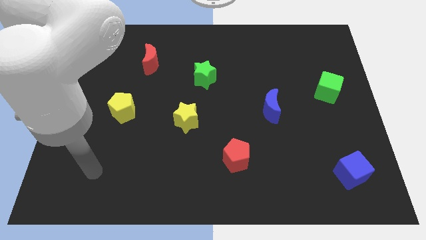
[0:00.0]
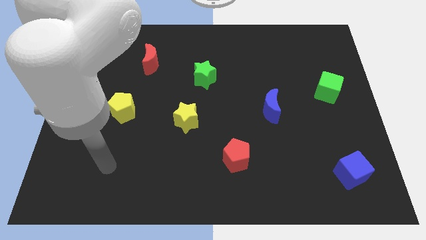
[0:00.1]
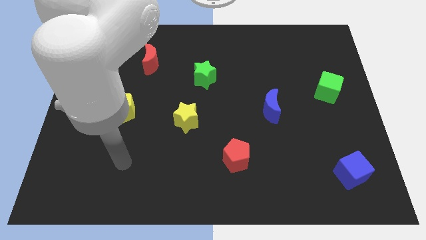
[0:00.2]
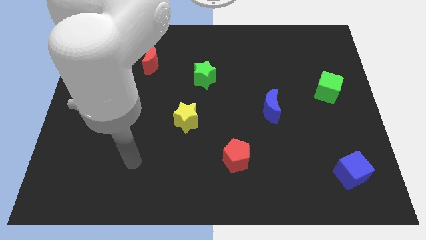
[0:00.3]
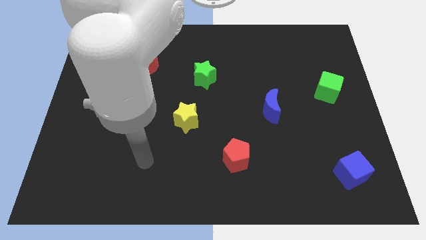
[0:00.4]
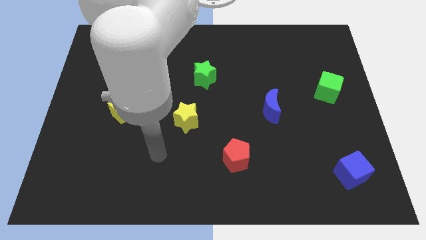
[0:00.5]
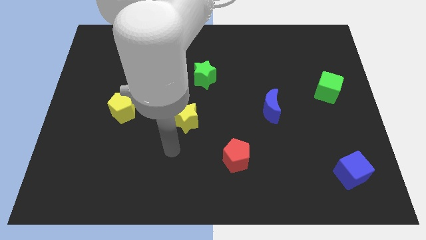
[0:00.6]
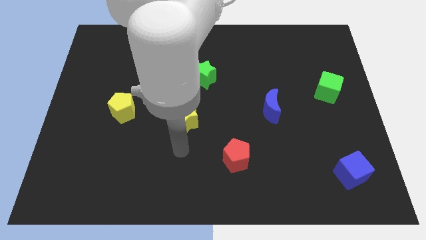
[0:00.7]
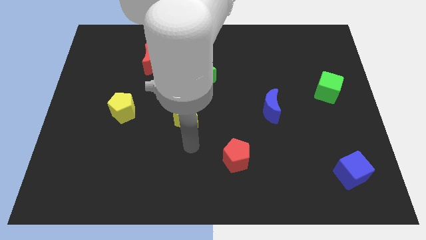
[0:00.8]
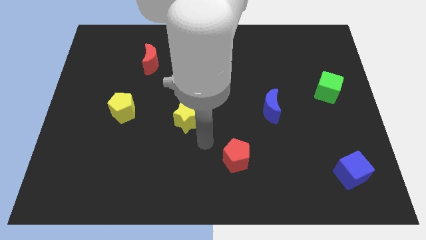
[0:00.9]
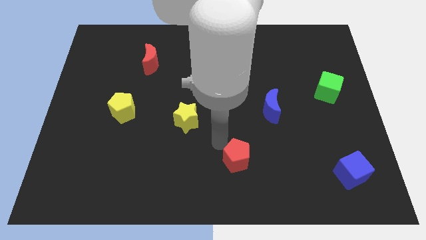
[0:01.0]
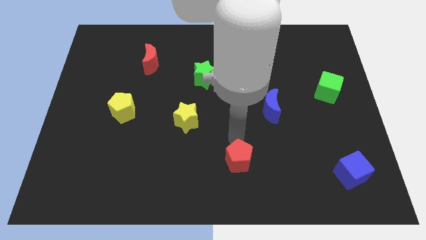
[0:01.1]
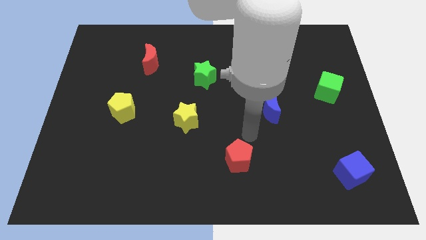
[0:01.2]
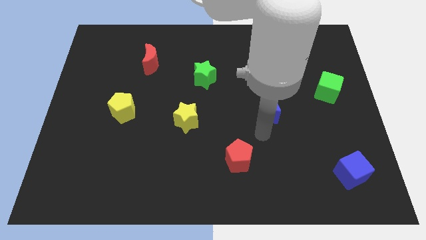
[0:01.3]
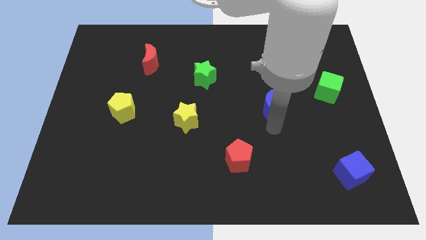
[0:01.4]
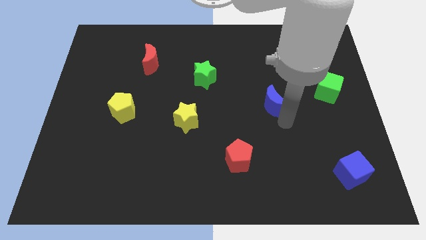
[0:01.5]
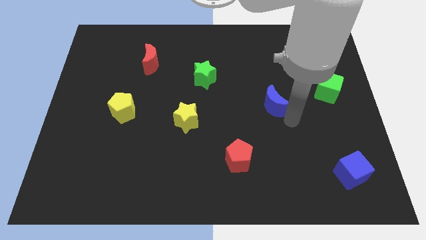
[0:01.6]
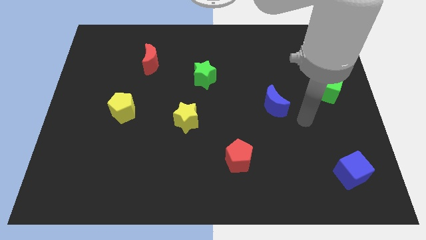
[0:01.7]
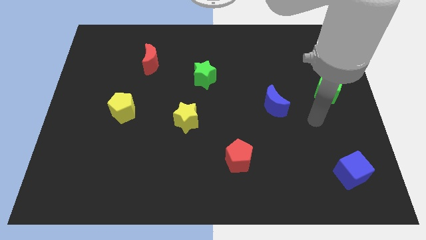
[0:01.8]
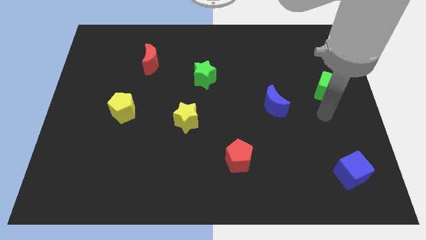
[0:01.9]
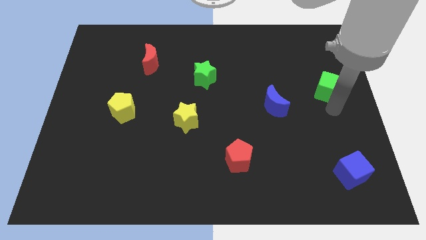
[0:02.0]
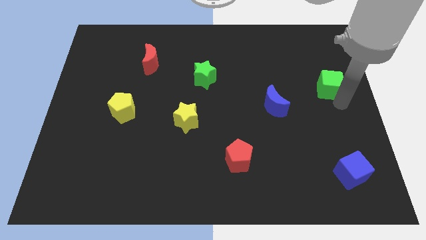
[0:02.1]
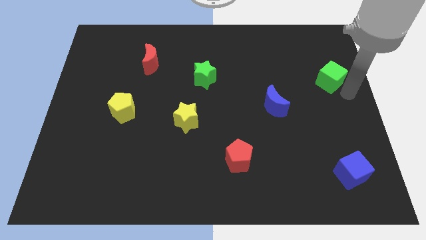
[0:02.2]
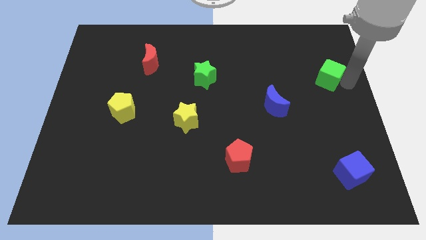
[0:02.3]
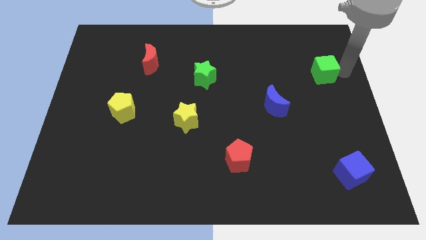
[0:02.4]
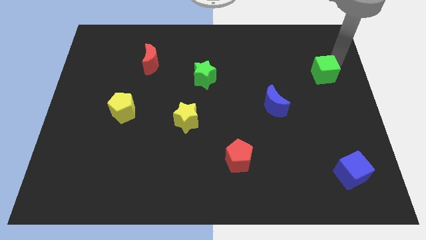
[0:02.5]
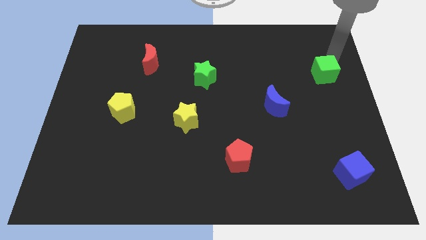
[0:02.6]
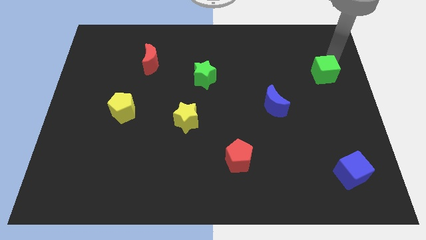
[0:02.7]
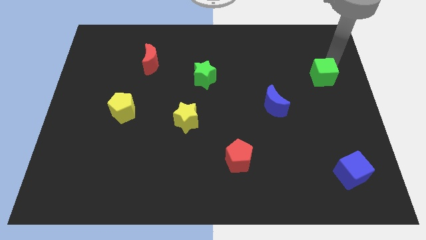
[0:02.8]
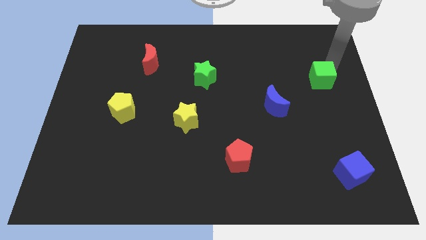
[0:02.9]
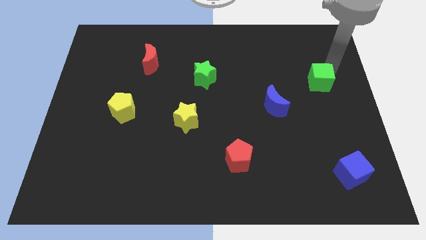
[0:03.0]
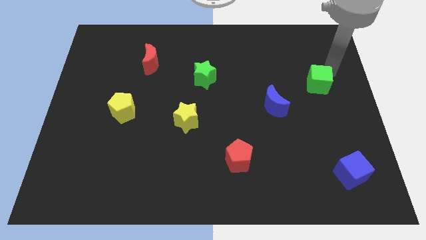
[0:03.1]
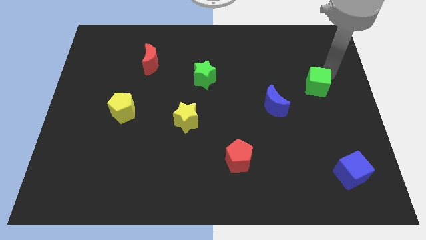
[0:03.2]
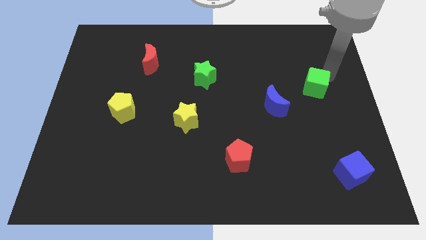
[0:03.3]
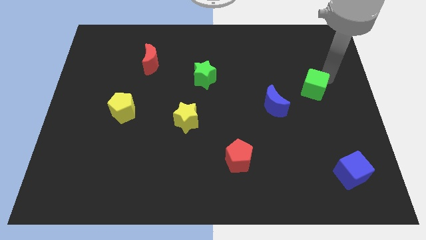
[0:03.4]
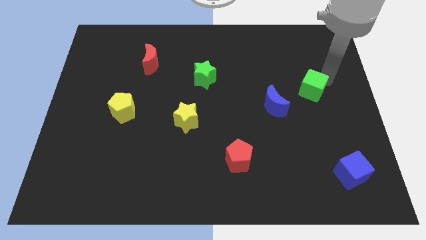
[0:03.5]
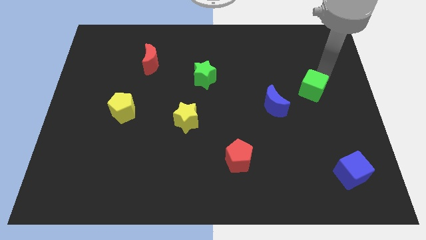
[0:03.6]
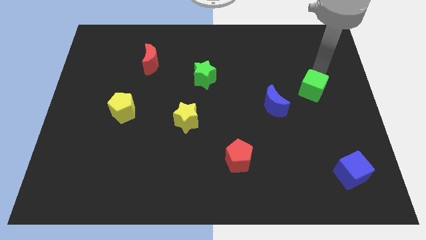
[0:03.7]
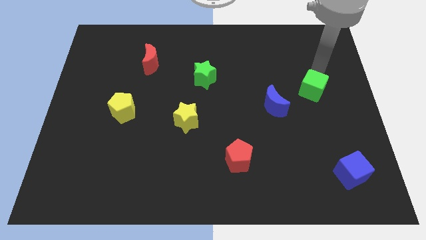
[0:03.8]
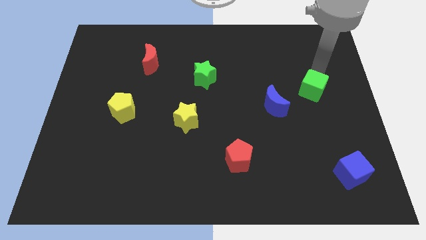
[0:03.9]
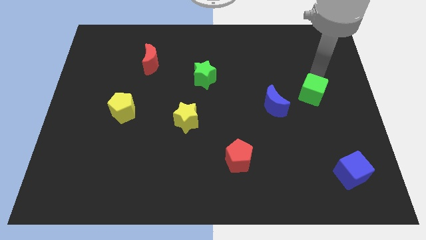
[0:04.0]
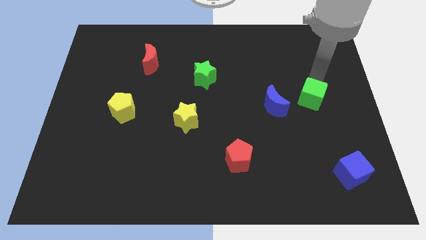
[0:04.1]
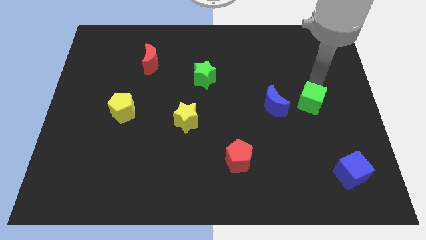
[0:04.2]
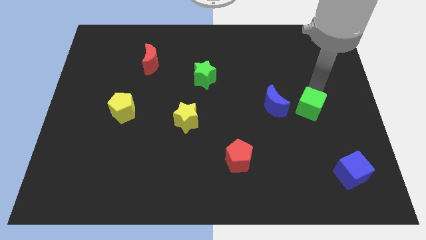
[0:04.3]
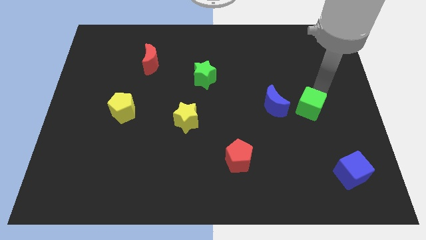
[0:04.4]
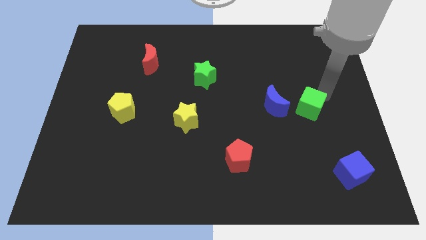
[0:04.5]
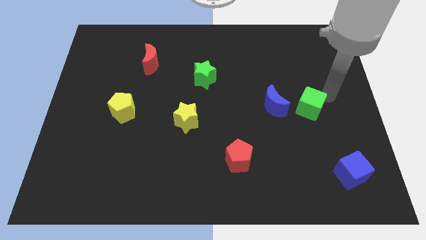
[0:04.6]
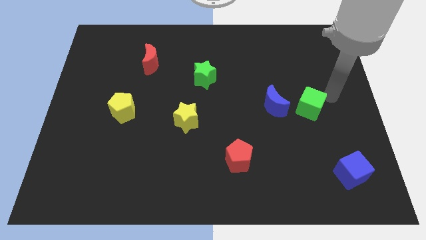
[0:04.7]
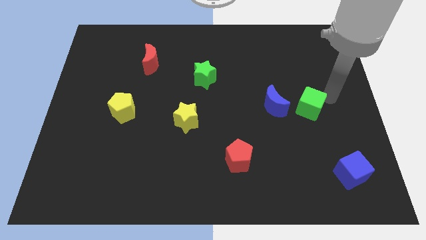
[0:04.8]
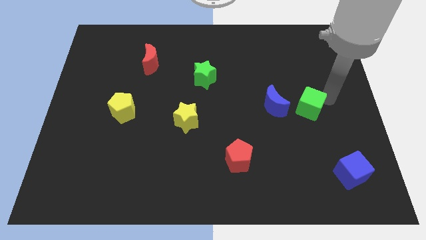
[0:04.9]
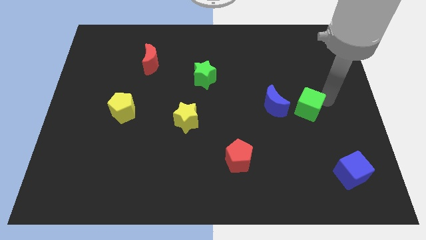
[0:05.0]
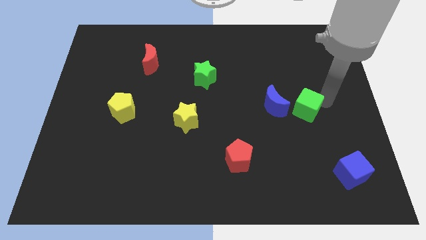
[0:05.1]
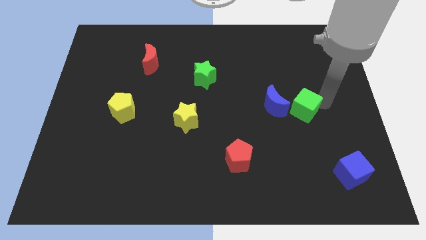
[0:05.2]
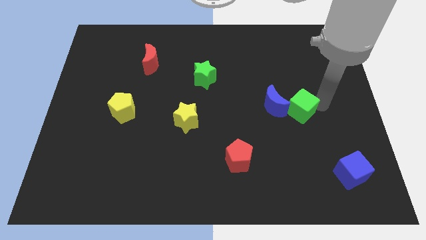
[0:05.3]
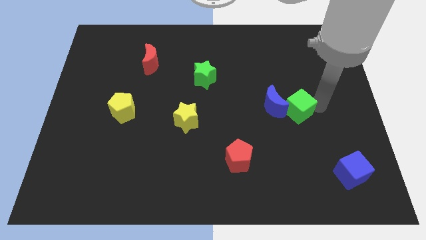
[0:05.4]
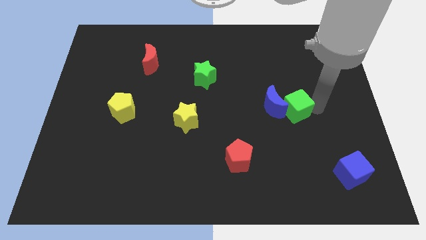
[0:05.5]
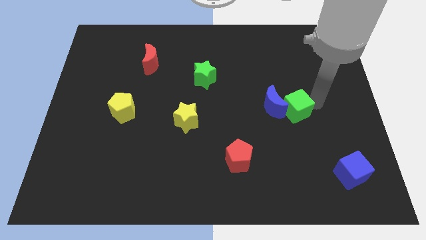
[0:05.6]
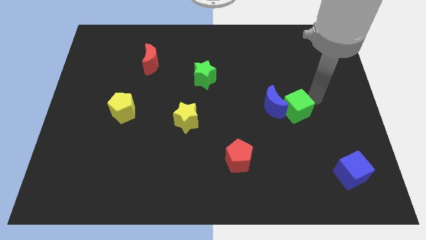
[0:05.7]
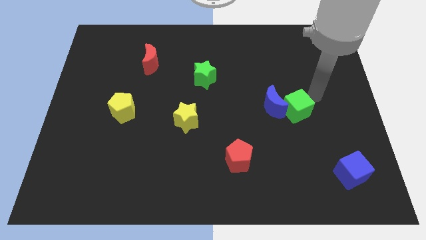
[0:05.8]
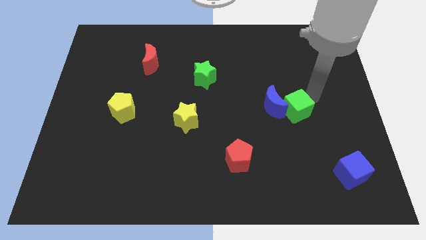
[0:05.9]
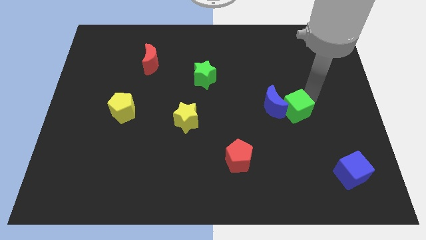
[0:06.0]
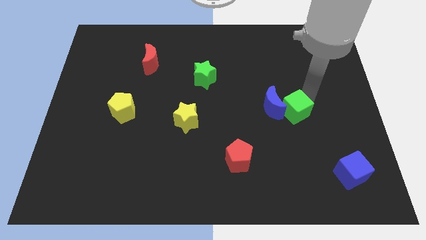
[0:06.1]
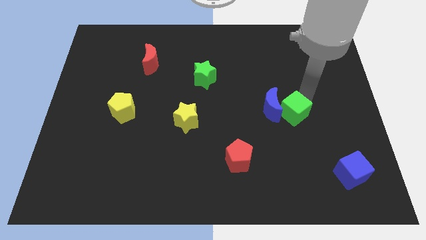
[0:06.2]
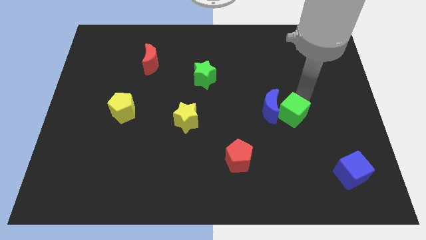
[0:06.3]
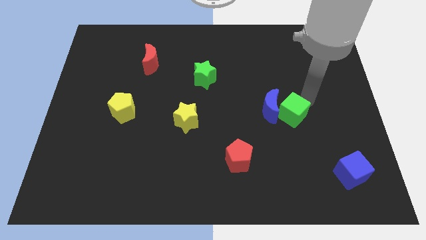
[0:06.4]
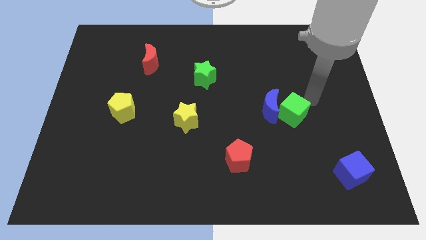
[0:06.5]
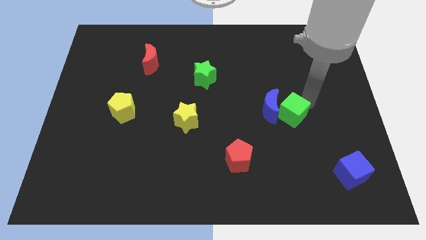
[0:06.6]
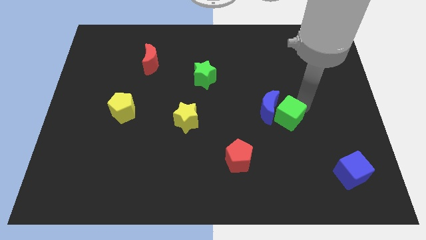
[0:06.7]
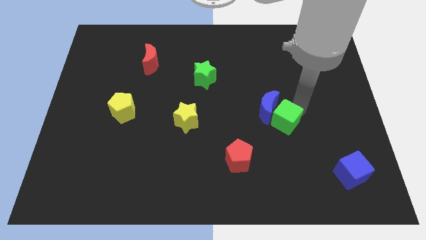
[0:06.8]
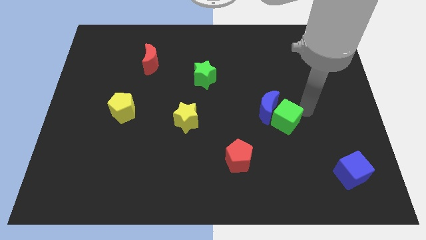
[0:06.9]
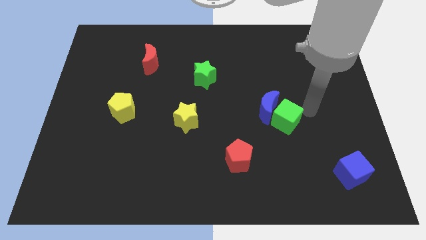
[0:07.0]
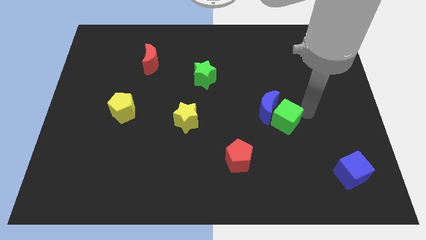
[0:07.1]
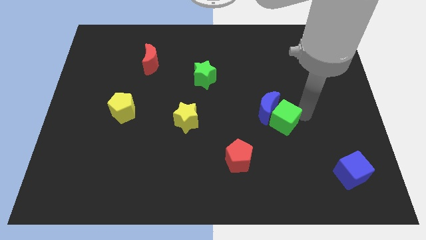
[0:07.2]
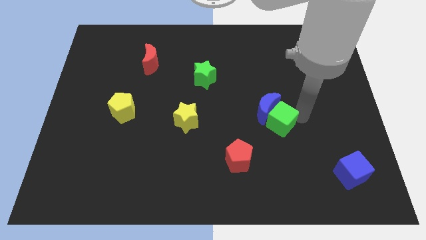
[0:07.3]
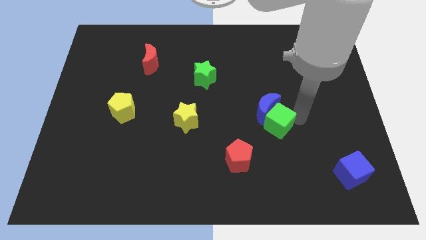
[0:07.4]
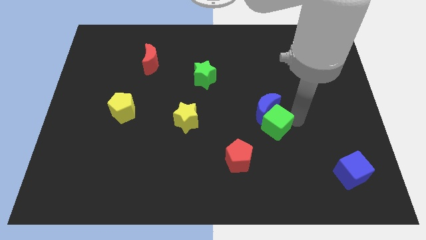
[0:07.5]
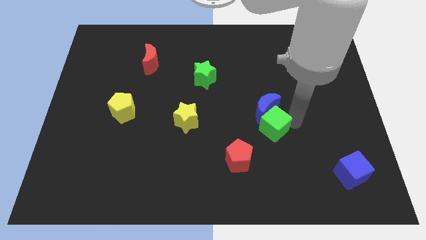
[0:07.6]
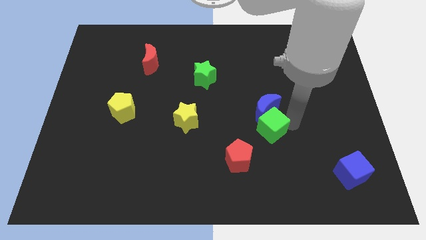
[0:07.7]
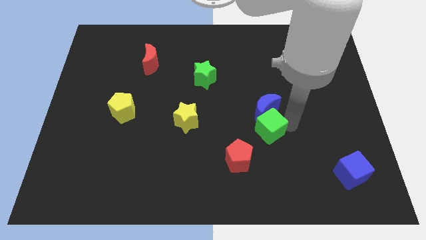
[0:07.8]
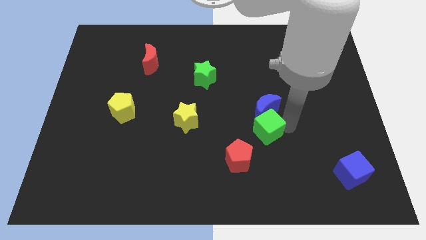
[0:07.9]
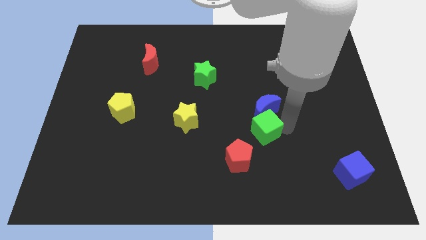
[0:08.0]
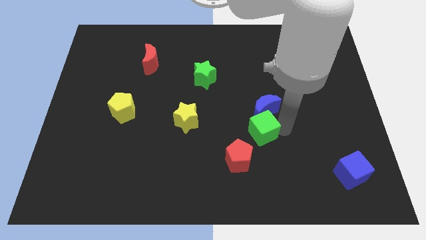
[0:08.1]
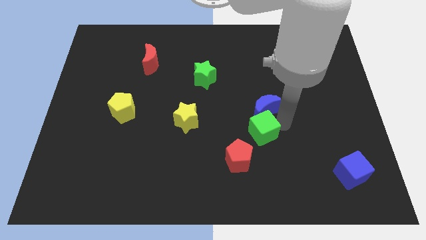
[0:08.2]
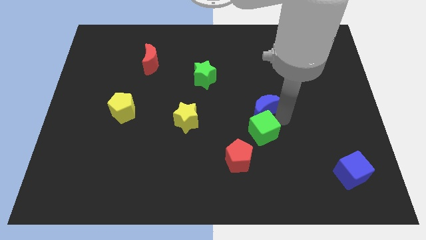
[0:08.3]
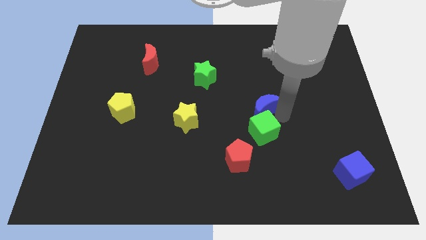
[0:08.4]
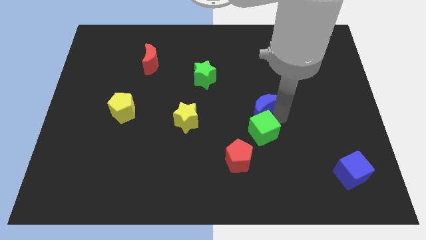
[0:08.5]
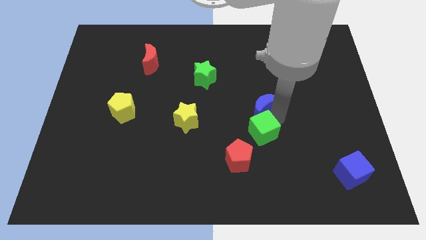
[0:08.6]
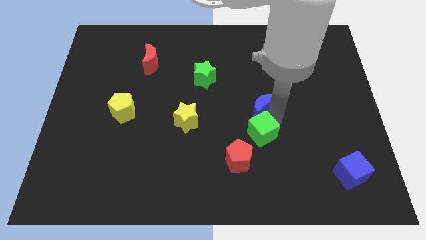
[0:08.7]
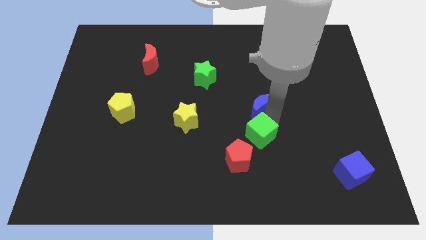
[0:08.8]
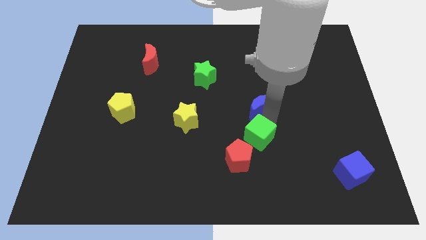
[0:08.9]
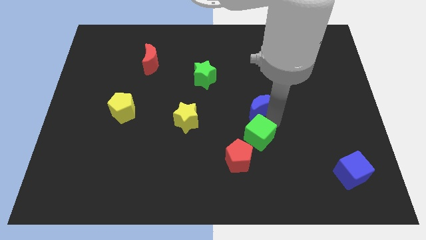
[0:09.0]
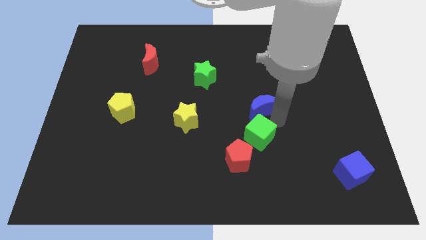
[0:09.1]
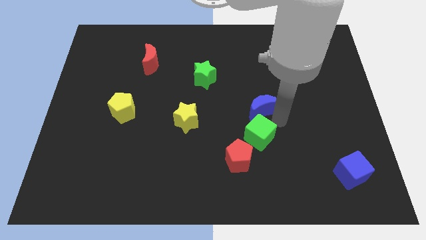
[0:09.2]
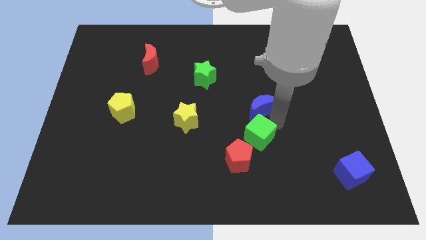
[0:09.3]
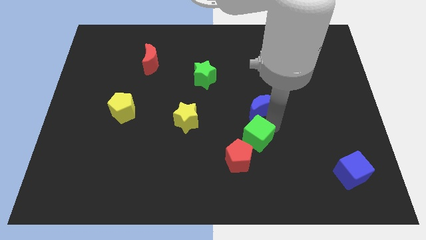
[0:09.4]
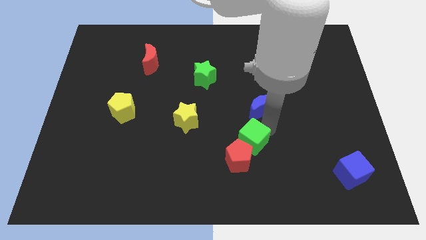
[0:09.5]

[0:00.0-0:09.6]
move the green cube close to the red pentagon
